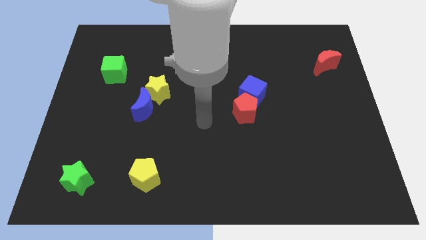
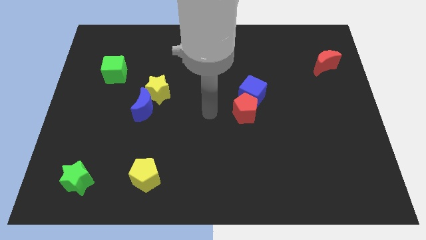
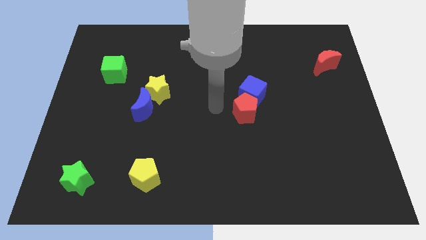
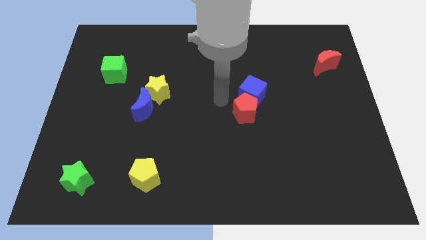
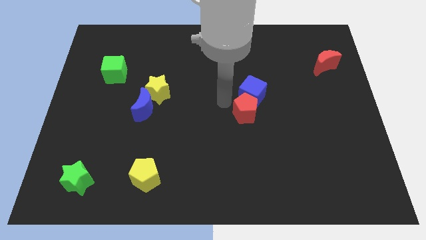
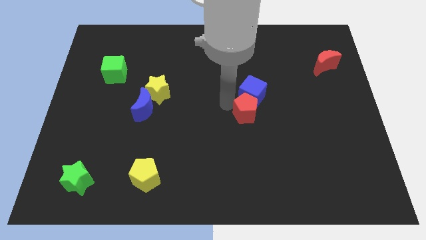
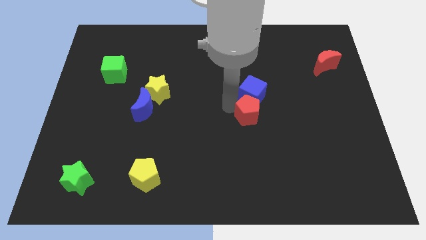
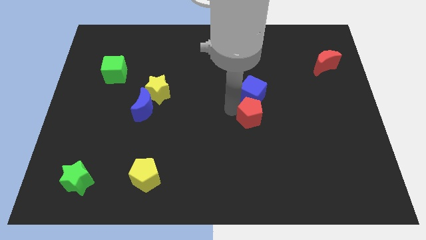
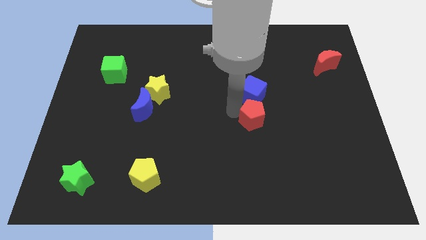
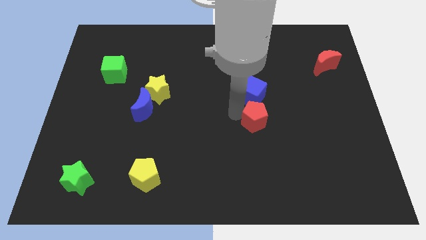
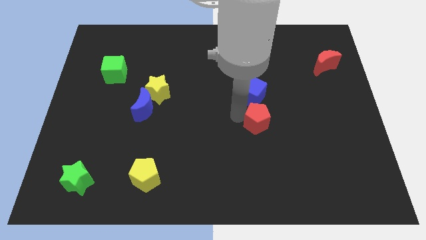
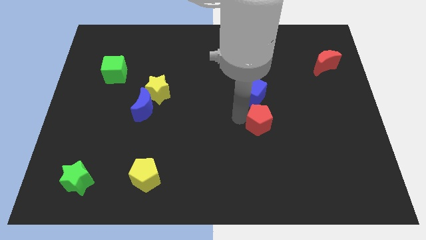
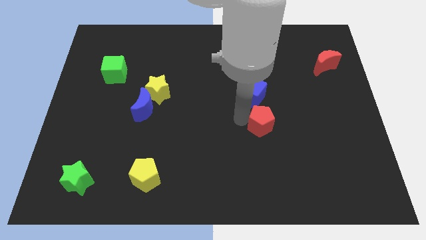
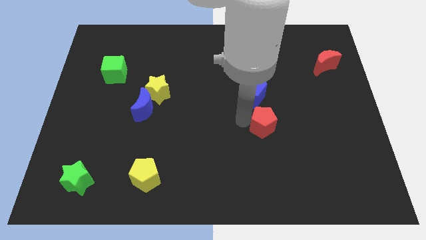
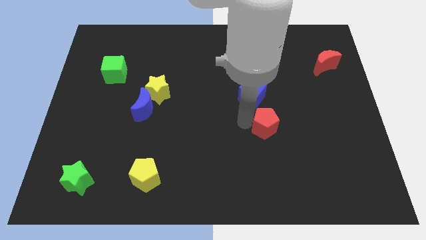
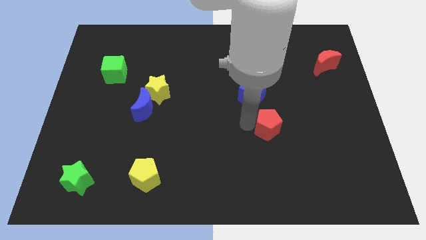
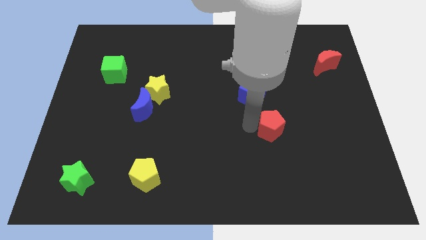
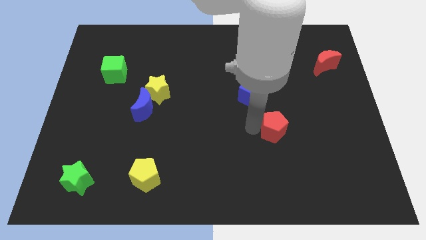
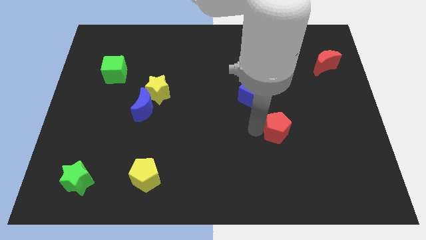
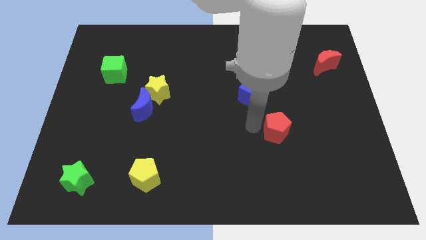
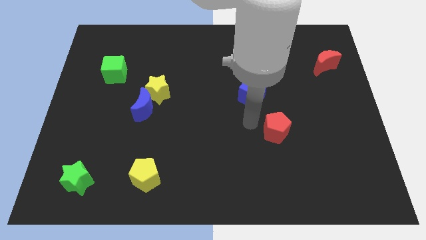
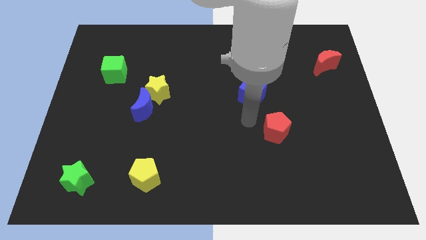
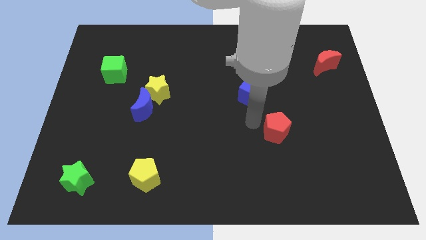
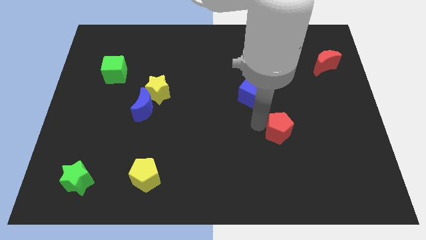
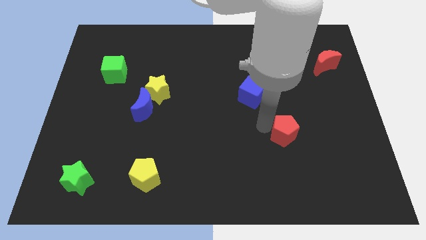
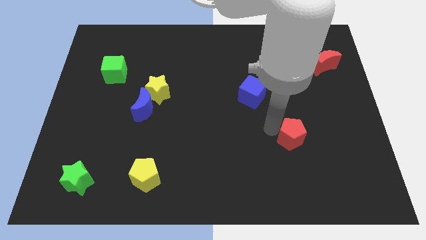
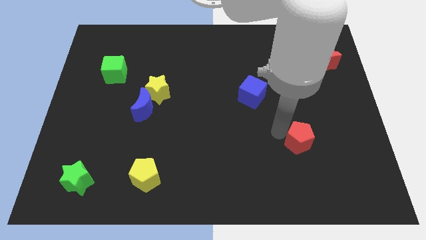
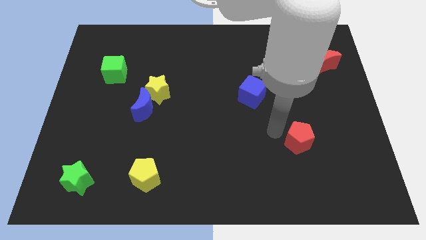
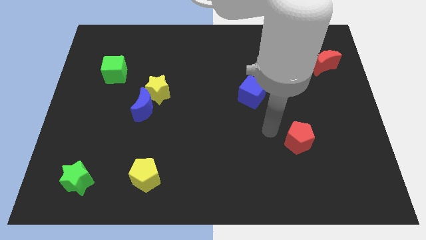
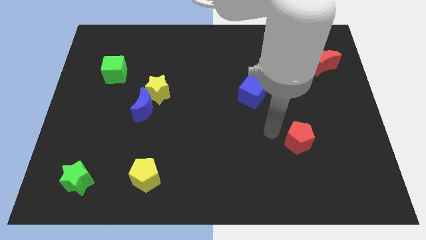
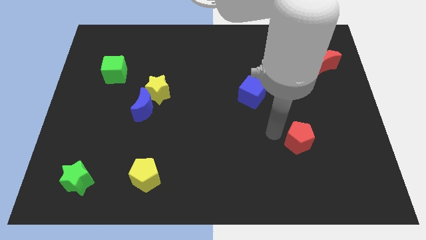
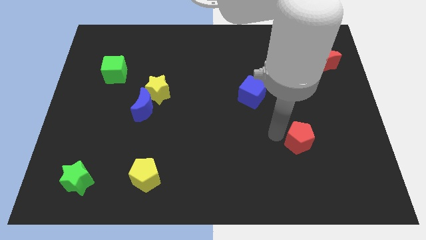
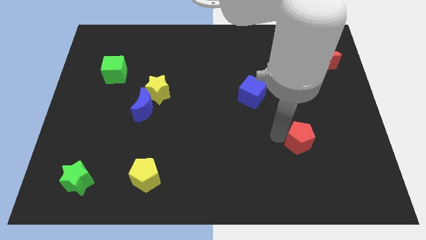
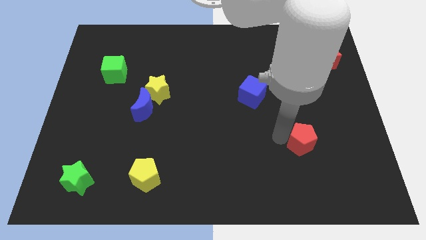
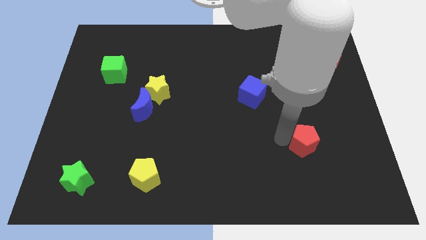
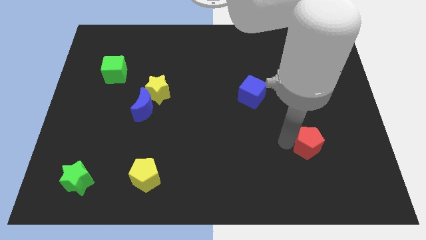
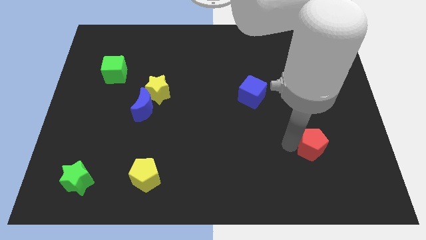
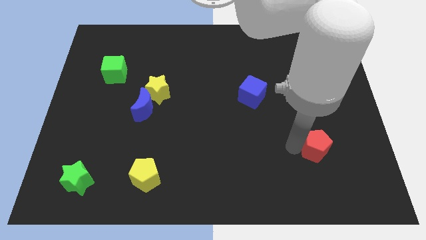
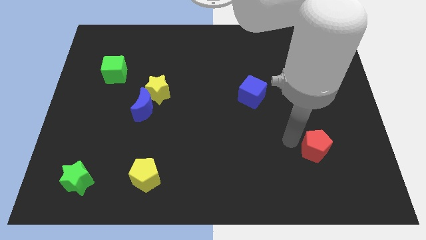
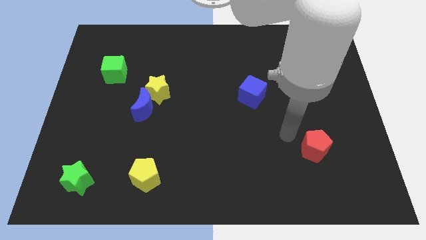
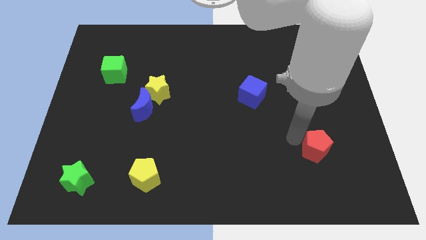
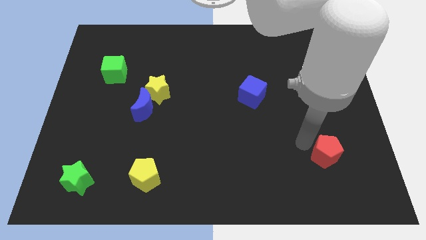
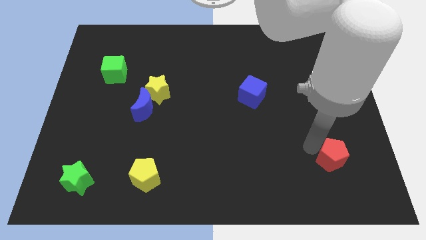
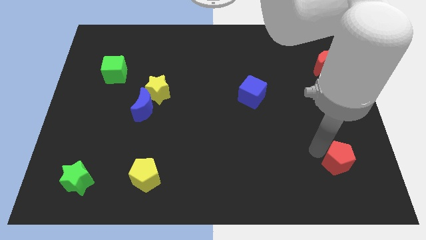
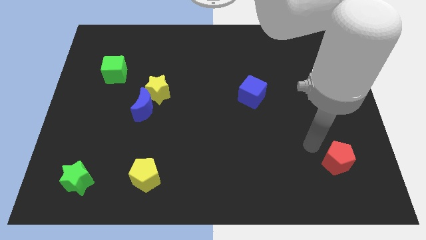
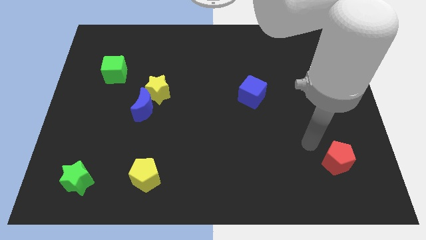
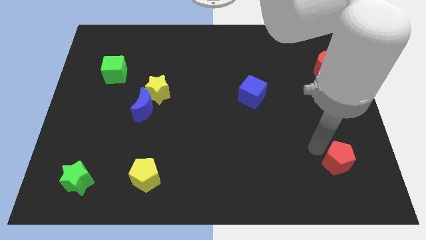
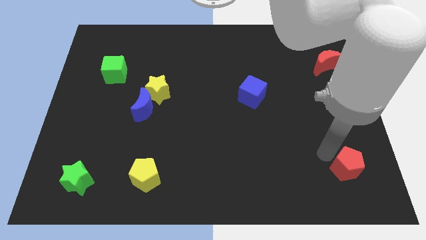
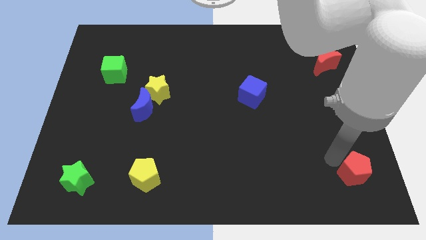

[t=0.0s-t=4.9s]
put the red pentagon to the lower right corner

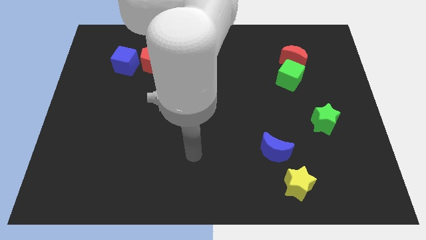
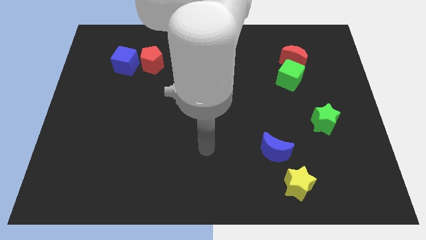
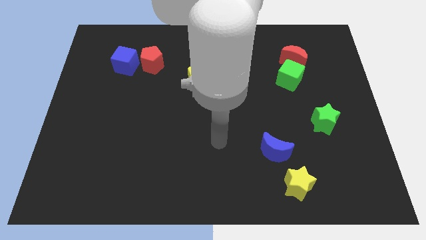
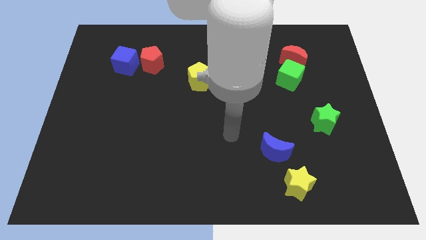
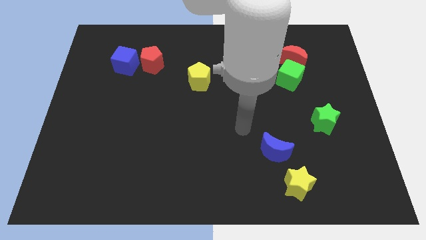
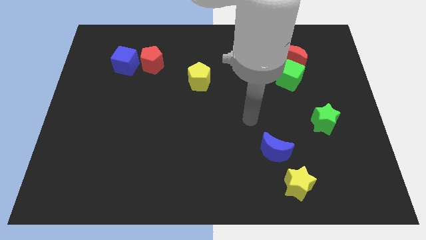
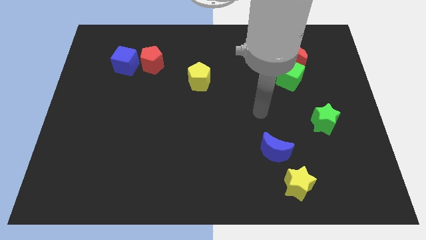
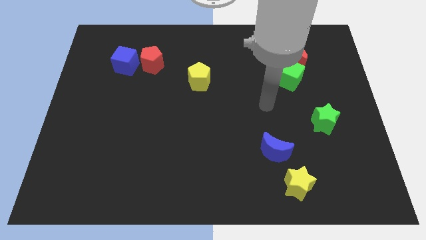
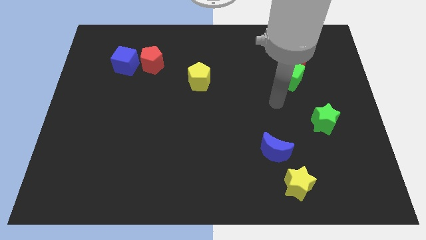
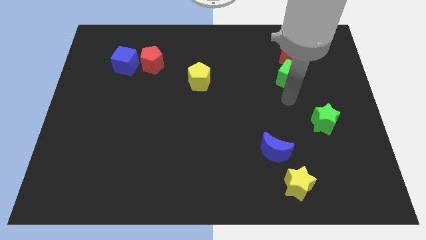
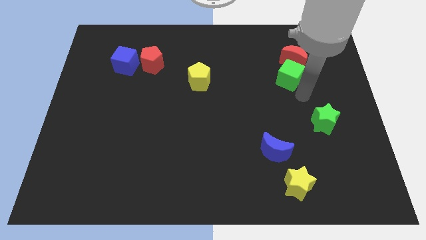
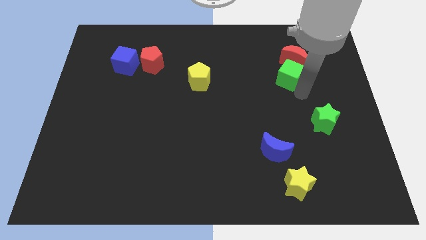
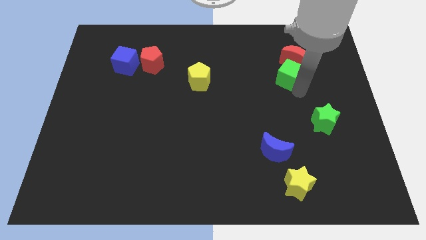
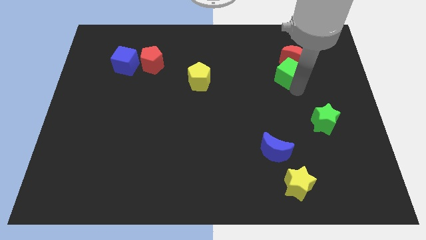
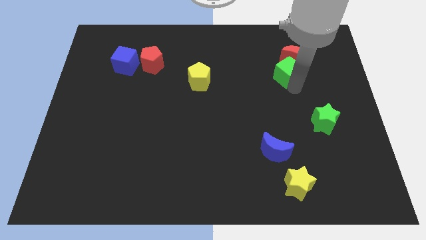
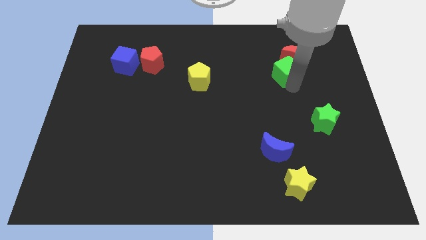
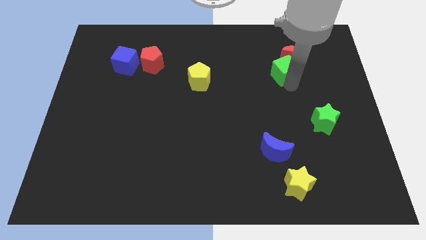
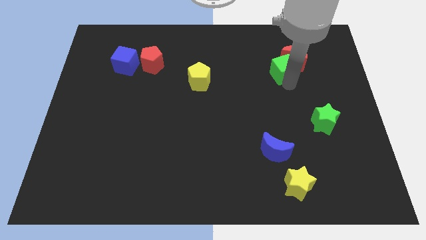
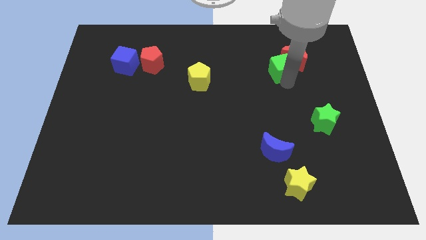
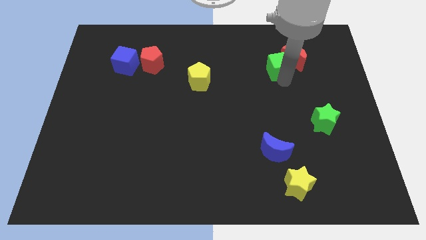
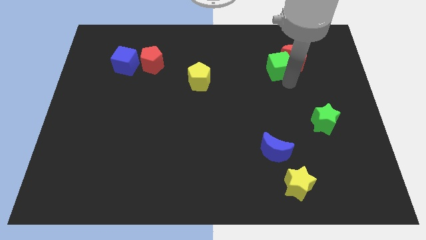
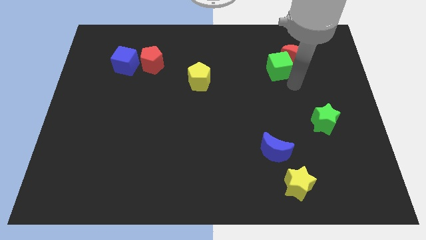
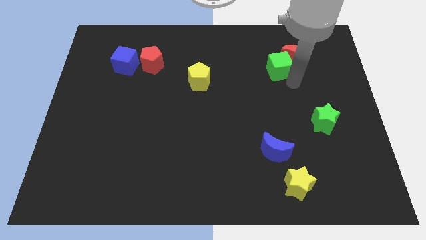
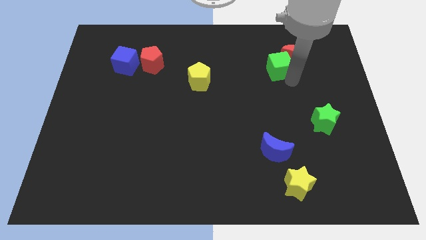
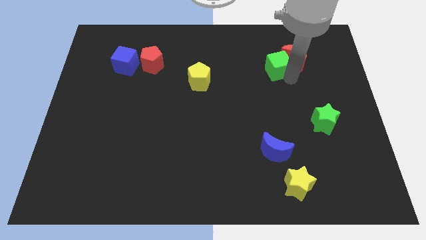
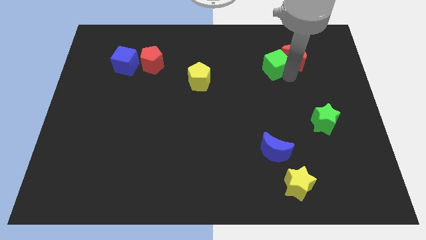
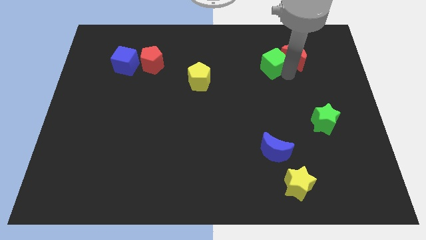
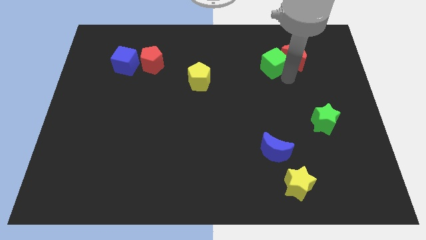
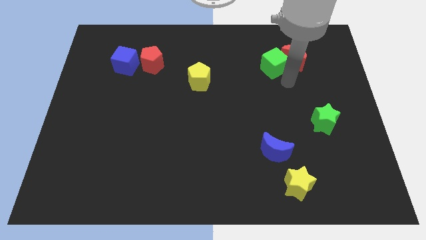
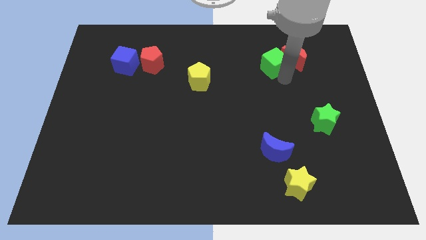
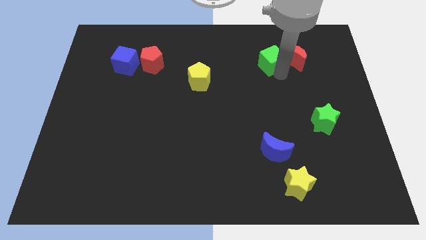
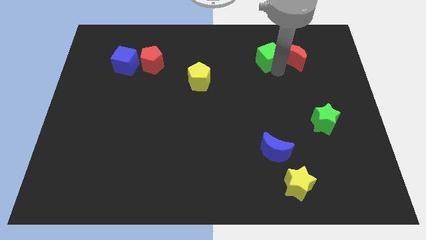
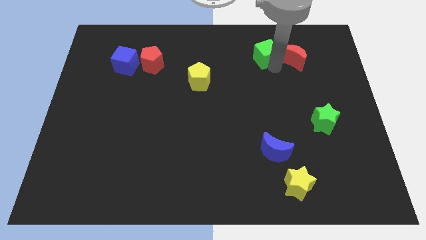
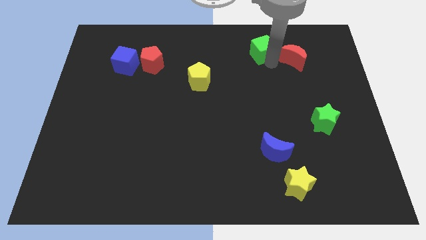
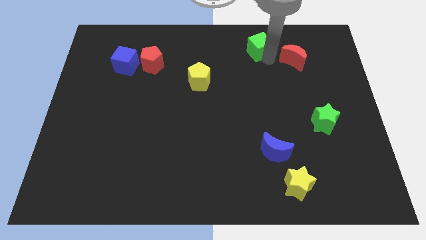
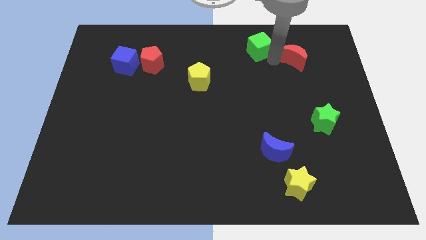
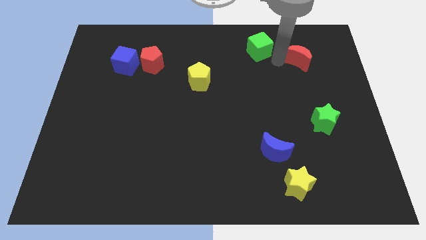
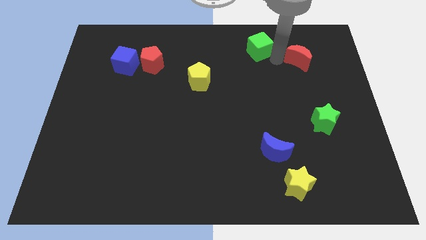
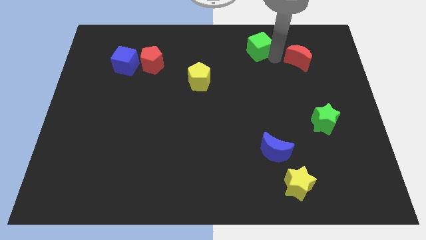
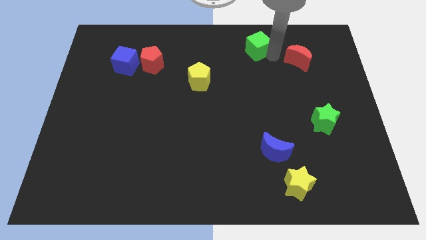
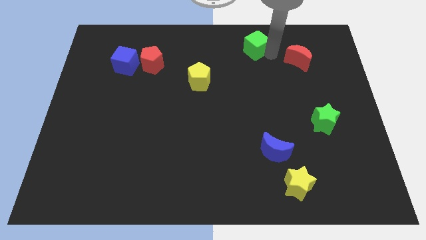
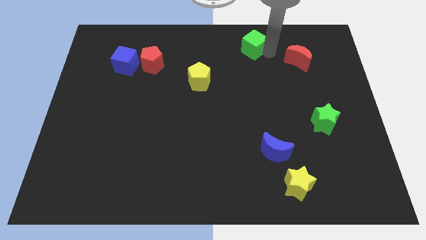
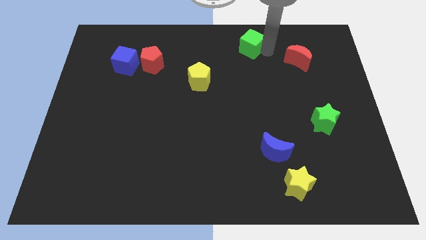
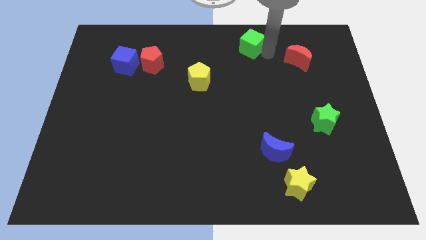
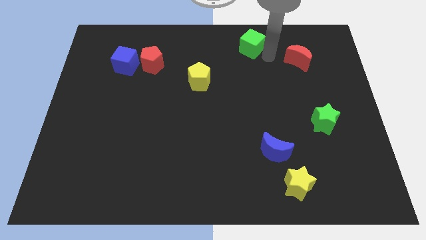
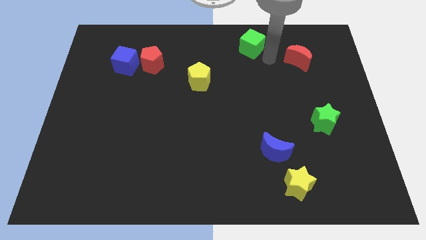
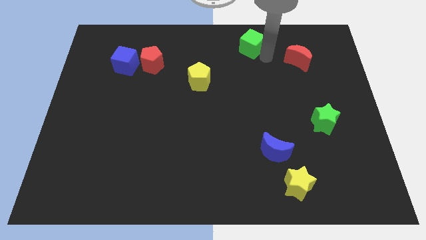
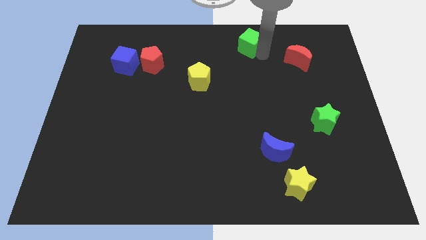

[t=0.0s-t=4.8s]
move the green cube to the towards your base
